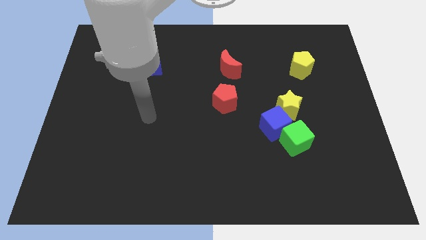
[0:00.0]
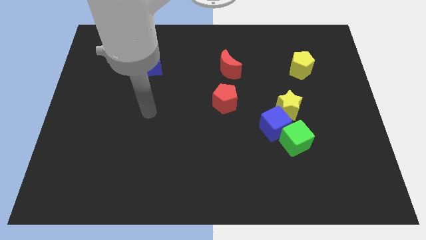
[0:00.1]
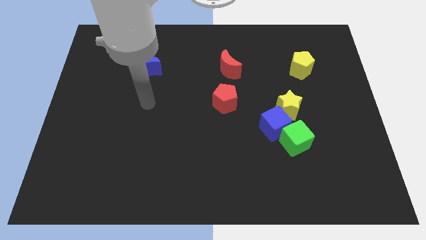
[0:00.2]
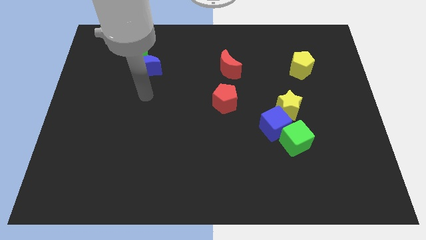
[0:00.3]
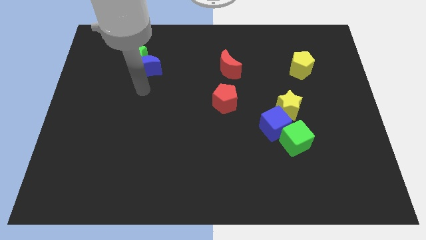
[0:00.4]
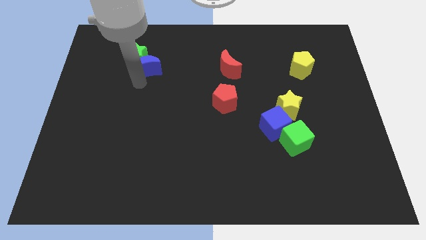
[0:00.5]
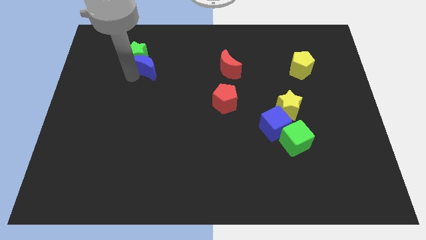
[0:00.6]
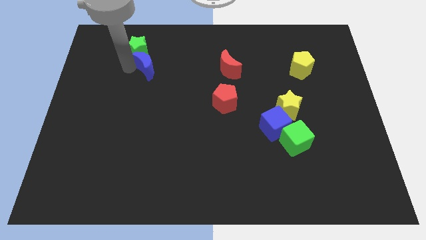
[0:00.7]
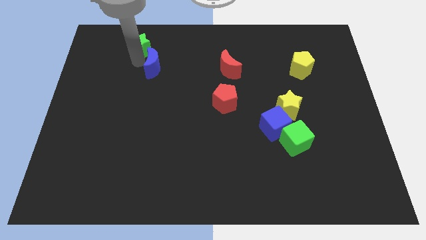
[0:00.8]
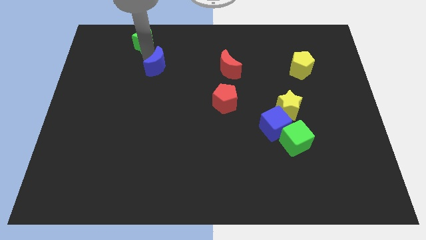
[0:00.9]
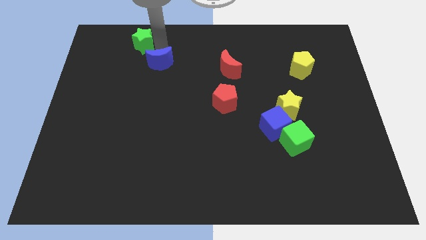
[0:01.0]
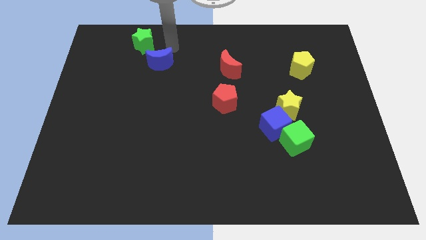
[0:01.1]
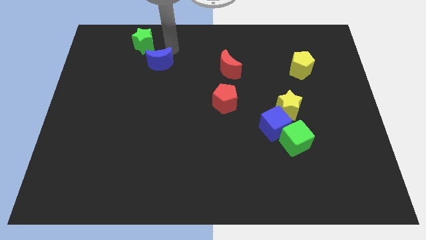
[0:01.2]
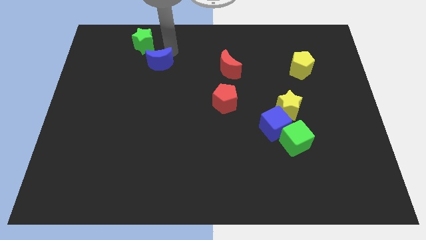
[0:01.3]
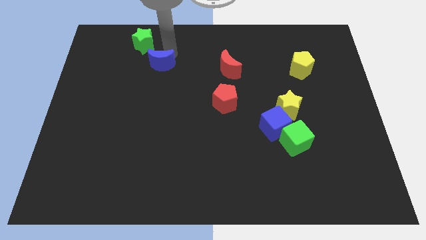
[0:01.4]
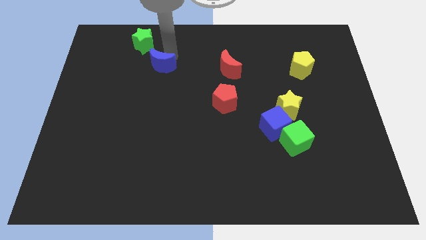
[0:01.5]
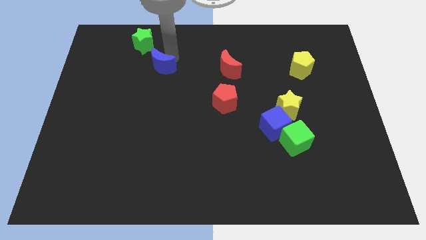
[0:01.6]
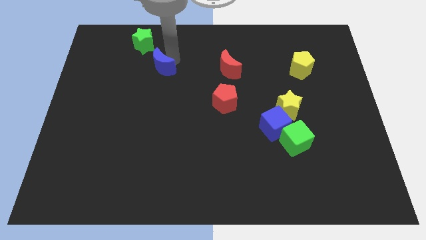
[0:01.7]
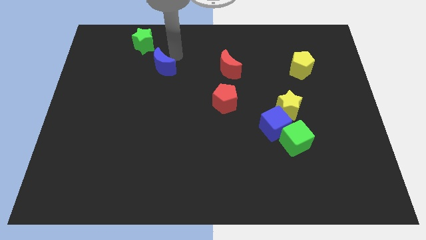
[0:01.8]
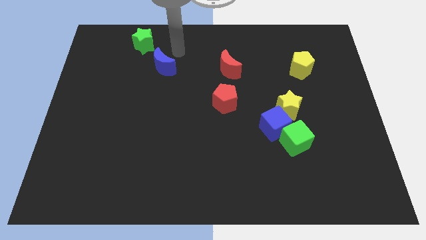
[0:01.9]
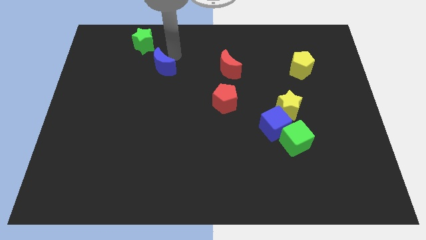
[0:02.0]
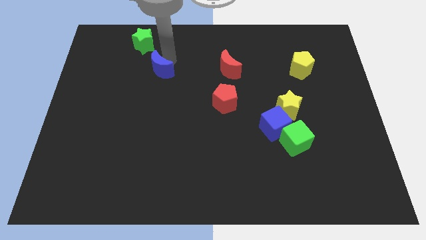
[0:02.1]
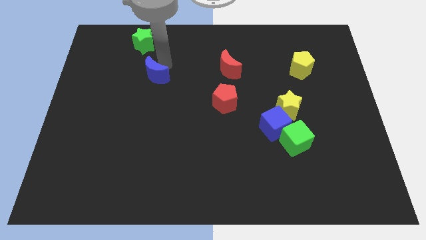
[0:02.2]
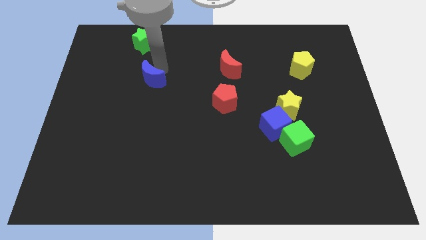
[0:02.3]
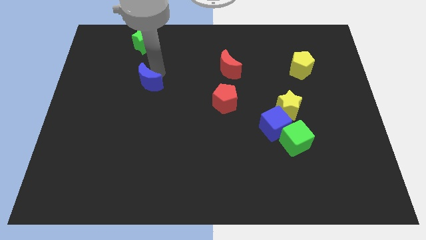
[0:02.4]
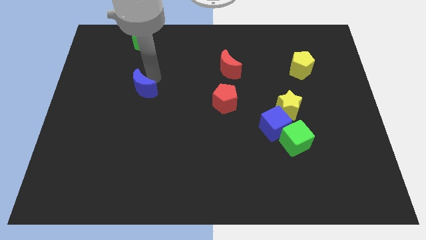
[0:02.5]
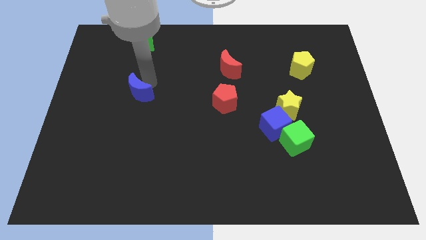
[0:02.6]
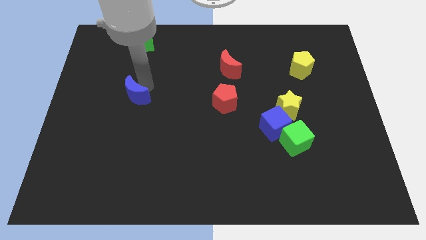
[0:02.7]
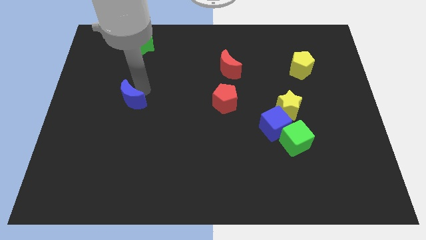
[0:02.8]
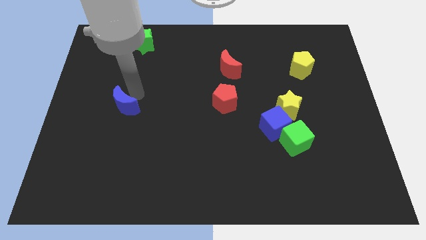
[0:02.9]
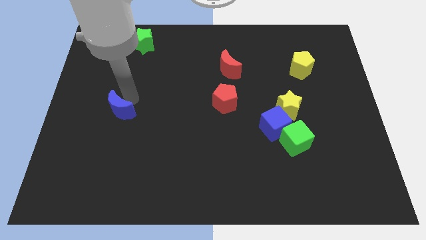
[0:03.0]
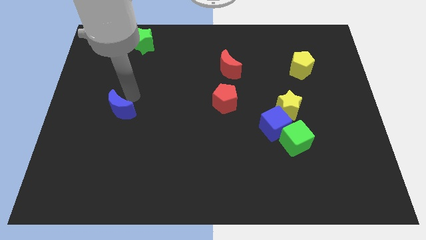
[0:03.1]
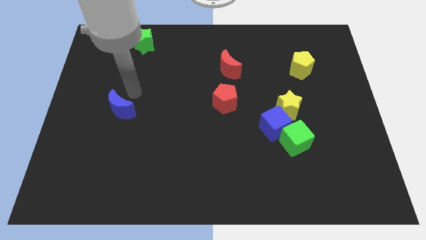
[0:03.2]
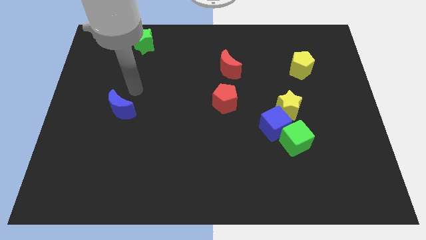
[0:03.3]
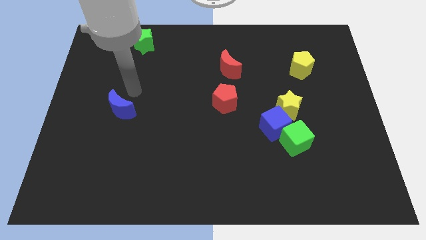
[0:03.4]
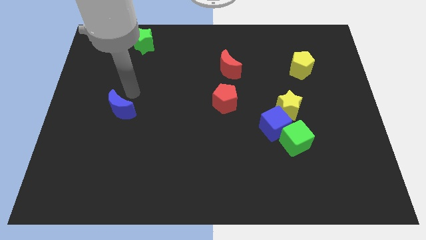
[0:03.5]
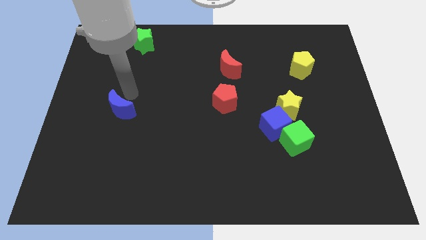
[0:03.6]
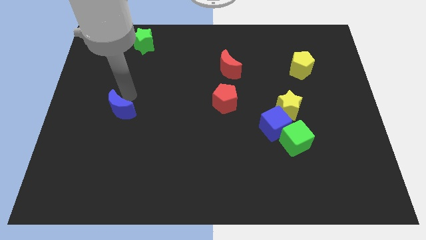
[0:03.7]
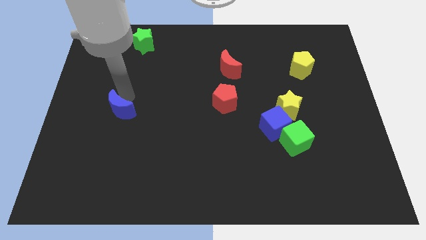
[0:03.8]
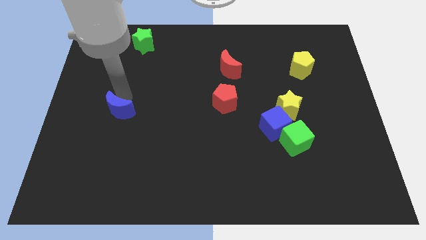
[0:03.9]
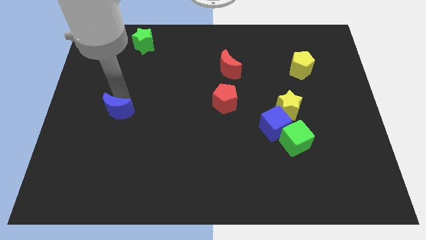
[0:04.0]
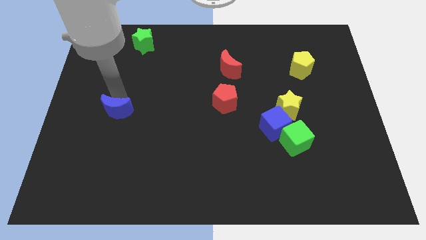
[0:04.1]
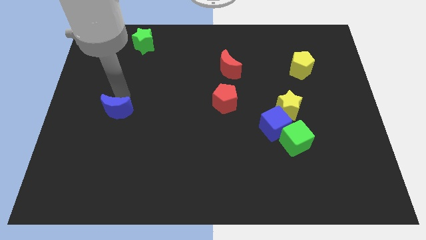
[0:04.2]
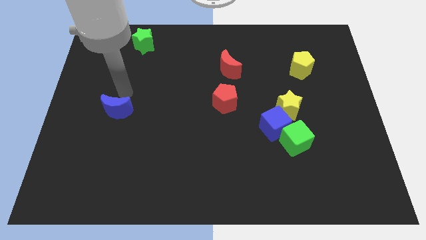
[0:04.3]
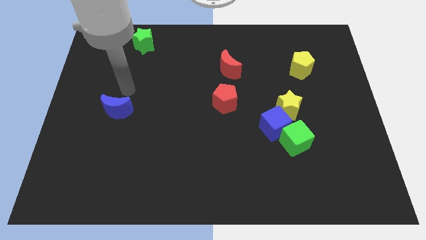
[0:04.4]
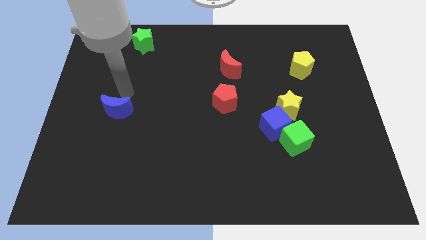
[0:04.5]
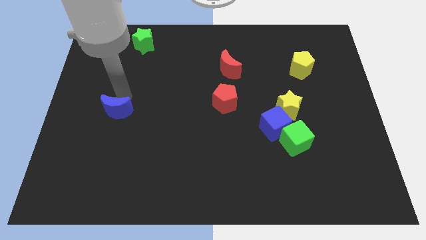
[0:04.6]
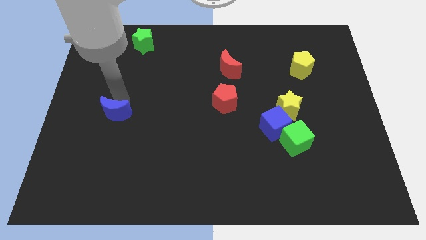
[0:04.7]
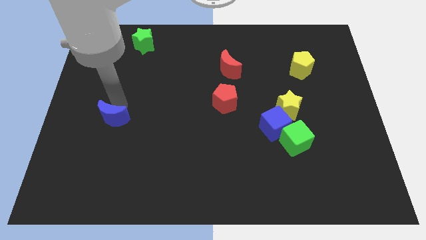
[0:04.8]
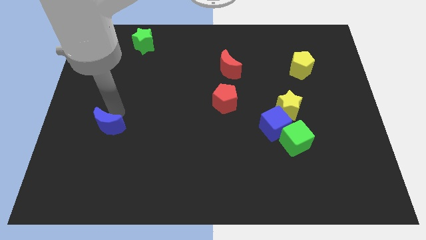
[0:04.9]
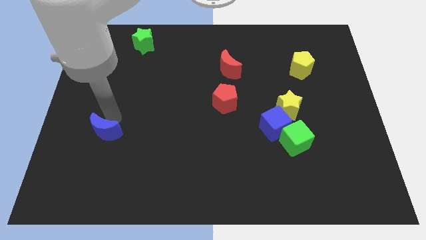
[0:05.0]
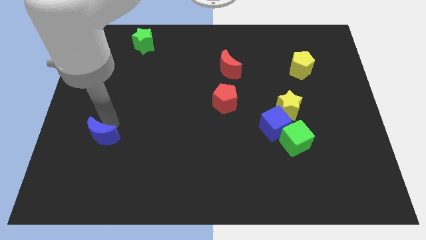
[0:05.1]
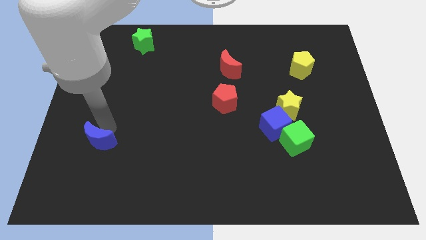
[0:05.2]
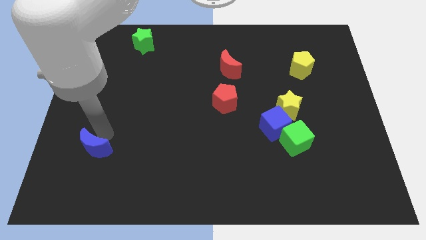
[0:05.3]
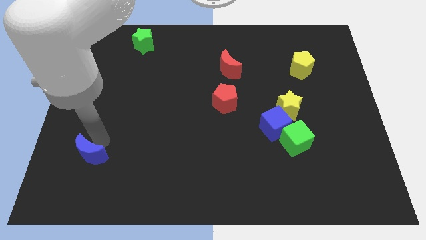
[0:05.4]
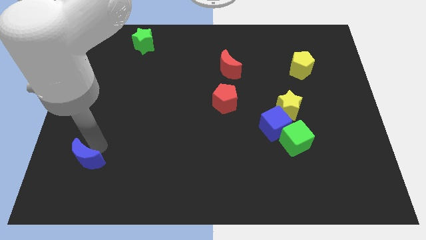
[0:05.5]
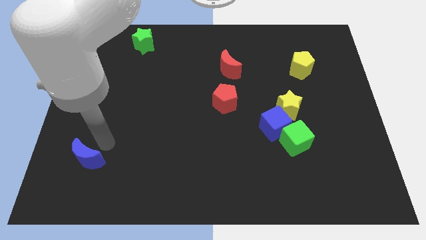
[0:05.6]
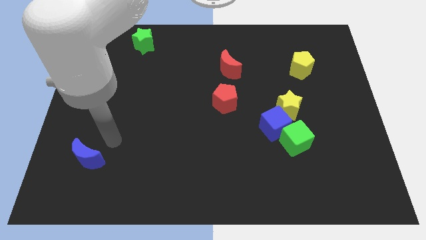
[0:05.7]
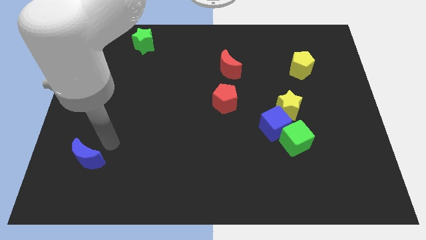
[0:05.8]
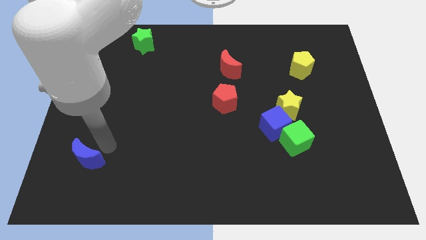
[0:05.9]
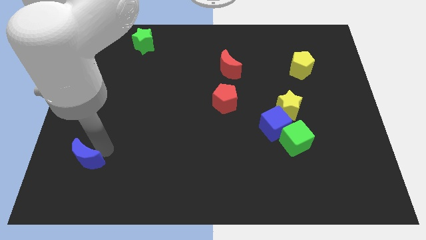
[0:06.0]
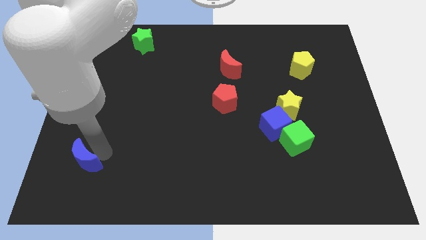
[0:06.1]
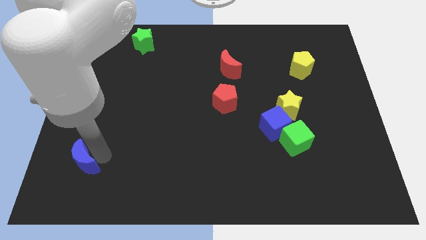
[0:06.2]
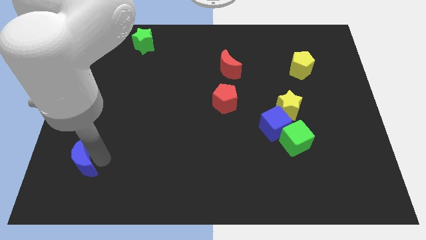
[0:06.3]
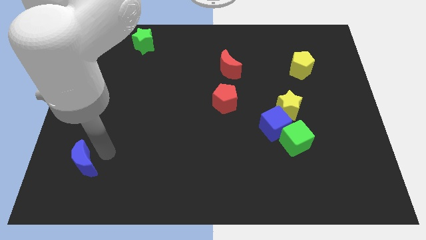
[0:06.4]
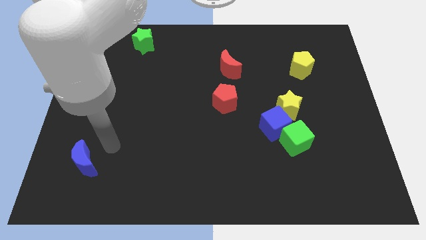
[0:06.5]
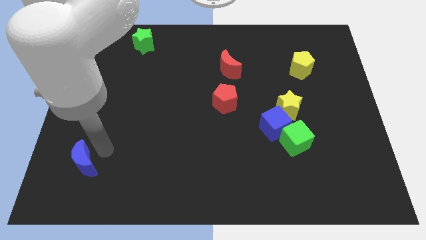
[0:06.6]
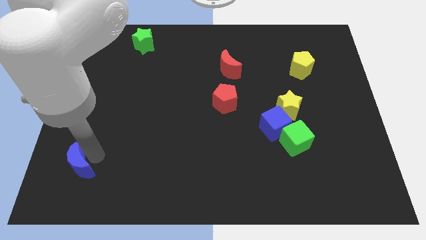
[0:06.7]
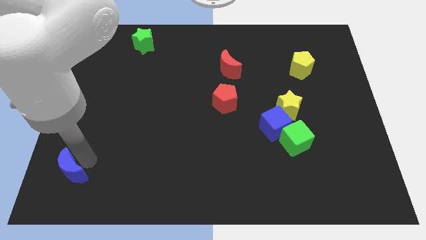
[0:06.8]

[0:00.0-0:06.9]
put the blue moon to the bottom left corner
